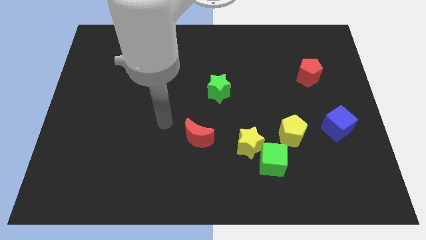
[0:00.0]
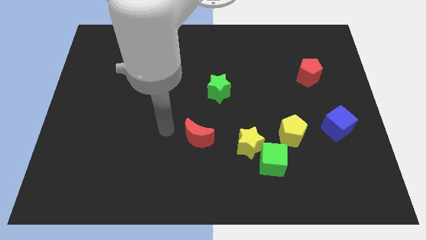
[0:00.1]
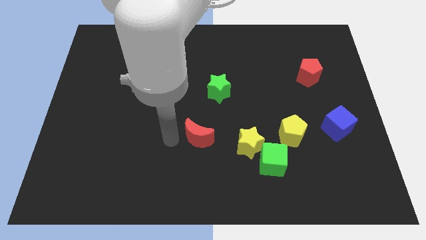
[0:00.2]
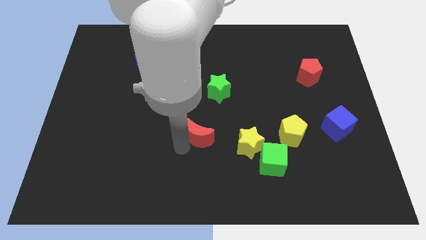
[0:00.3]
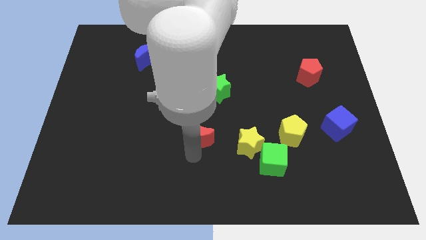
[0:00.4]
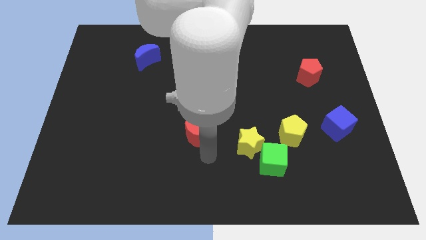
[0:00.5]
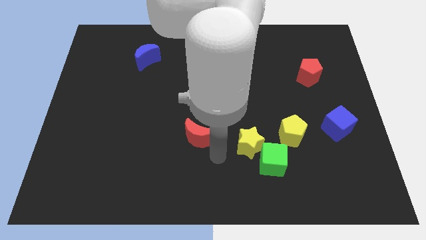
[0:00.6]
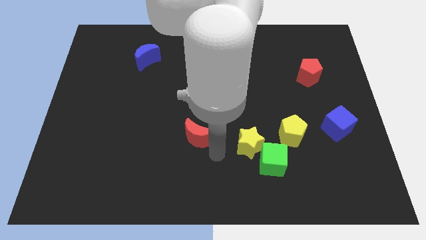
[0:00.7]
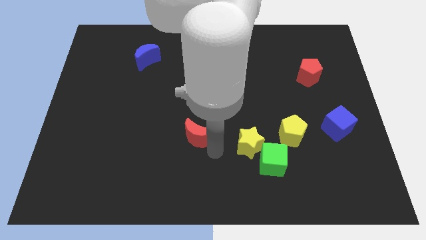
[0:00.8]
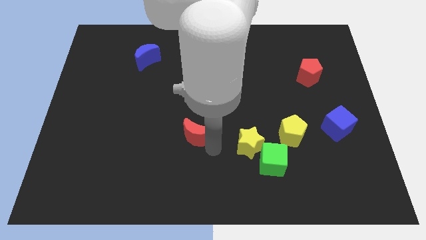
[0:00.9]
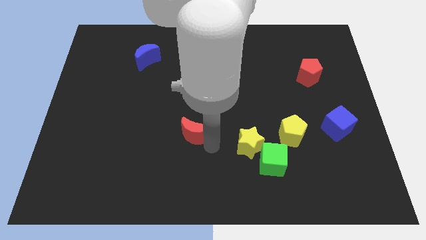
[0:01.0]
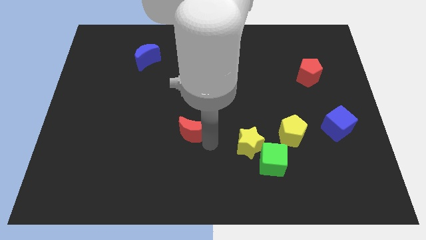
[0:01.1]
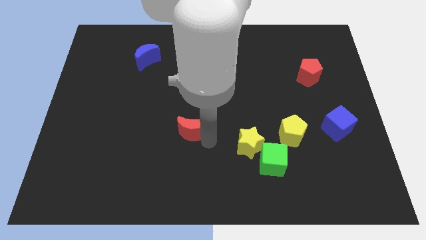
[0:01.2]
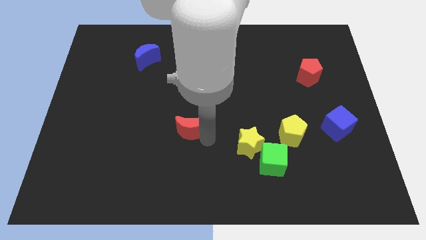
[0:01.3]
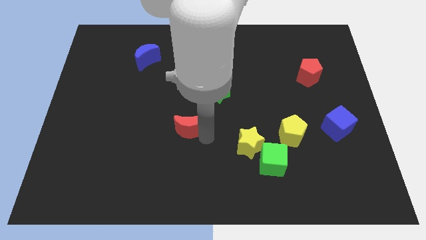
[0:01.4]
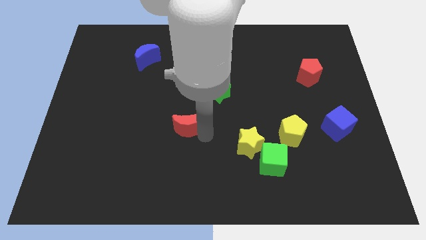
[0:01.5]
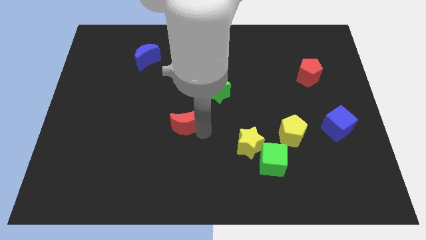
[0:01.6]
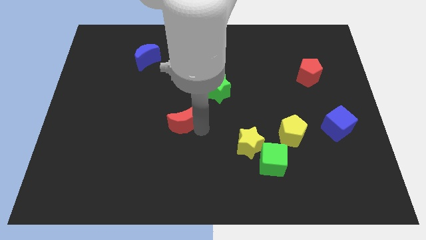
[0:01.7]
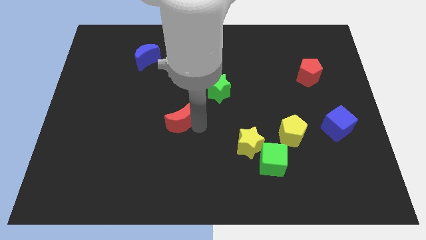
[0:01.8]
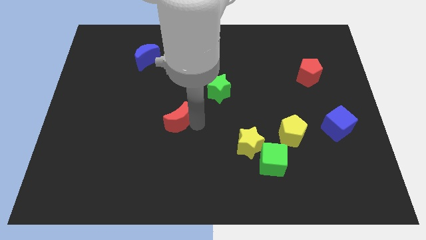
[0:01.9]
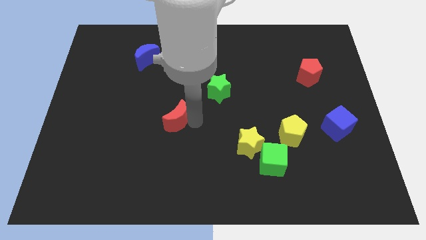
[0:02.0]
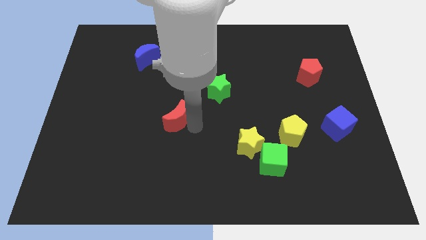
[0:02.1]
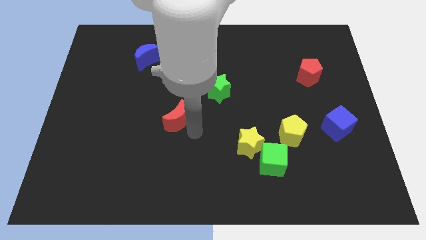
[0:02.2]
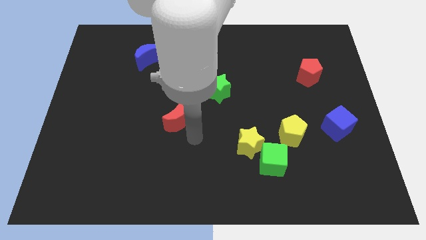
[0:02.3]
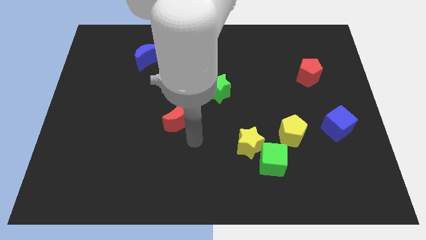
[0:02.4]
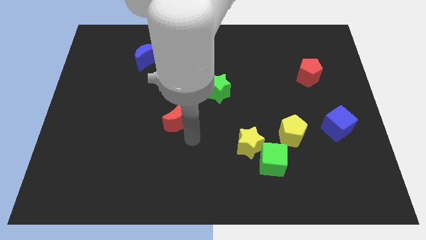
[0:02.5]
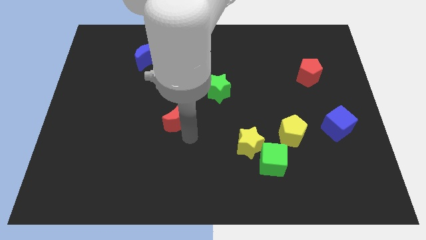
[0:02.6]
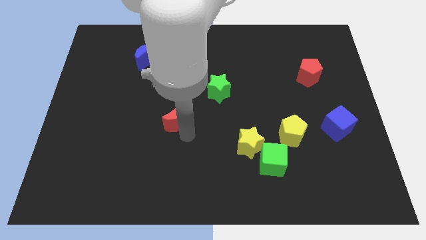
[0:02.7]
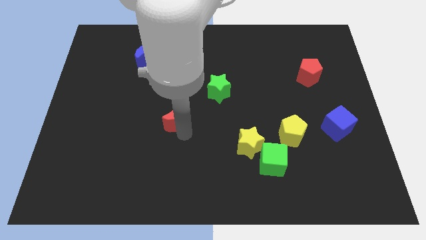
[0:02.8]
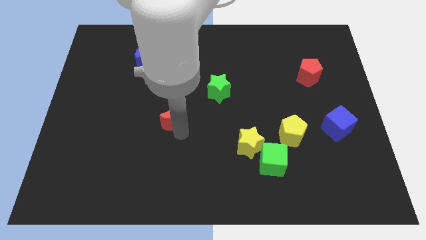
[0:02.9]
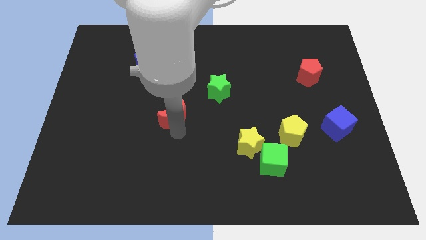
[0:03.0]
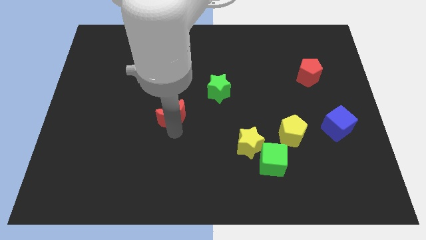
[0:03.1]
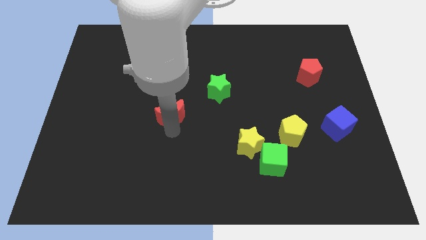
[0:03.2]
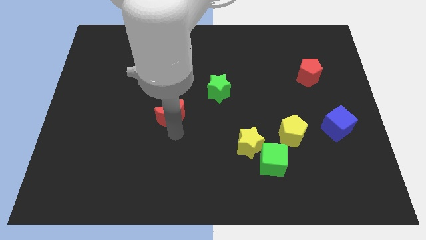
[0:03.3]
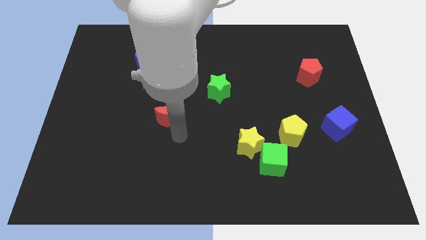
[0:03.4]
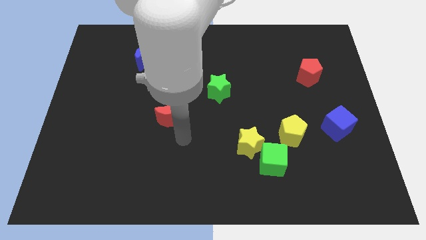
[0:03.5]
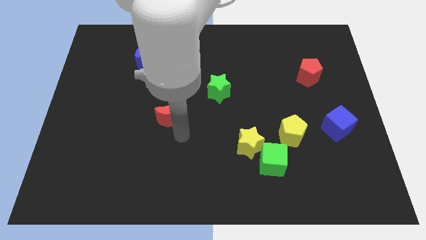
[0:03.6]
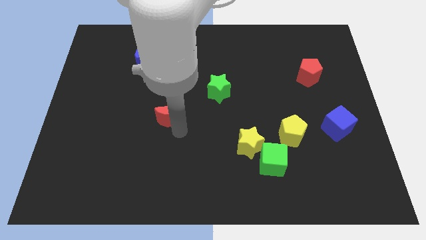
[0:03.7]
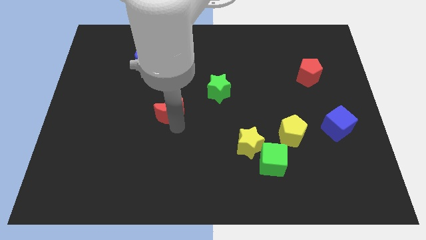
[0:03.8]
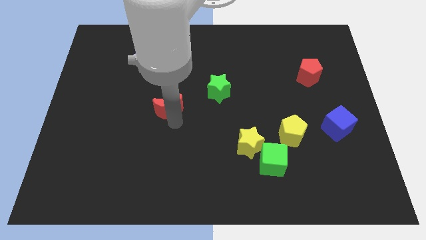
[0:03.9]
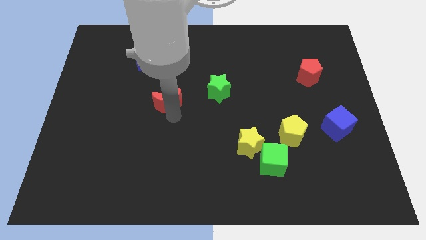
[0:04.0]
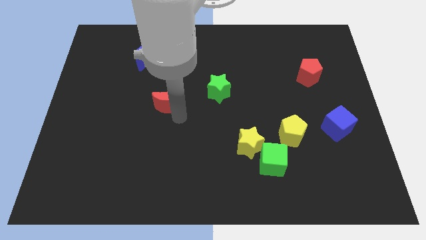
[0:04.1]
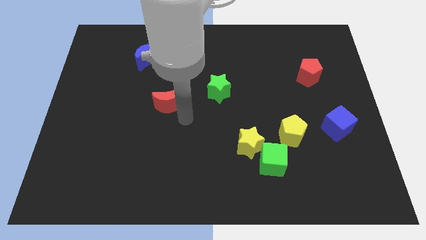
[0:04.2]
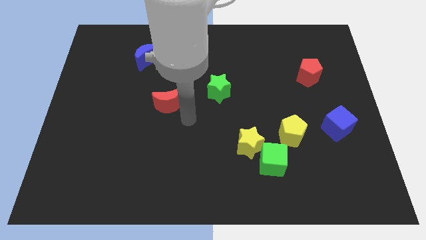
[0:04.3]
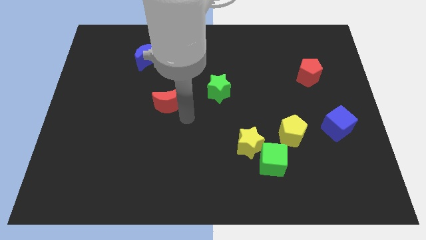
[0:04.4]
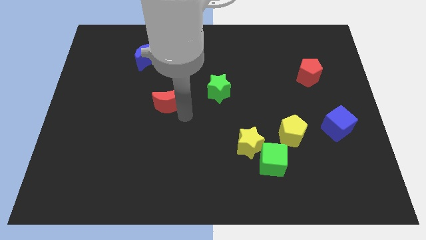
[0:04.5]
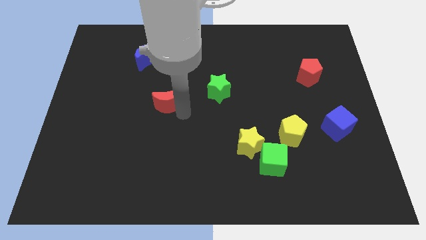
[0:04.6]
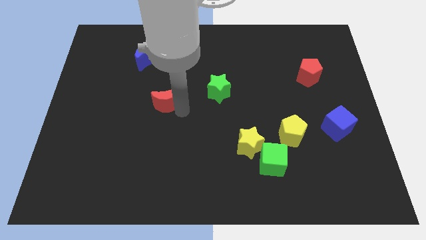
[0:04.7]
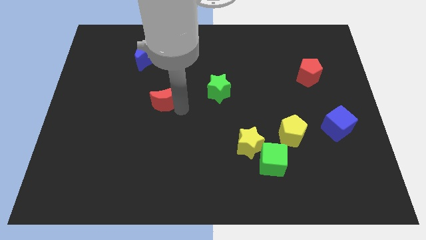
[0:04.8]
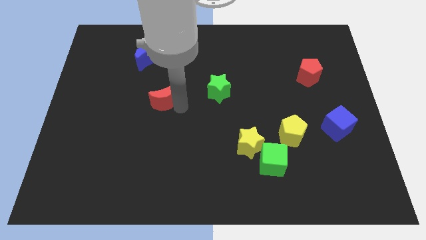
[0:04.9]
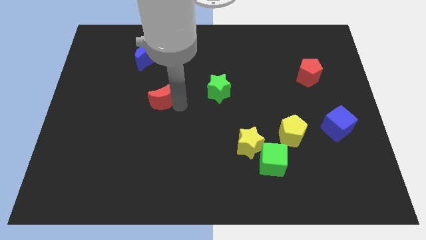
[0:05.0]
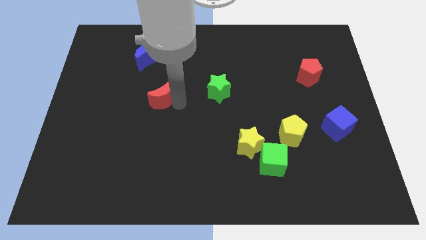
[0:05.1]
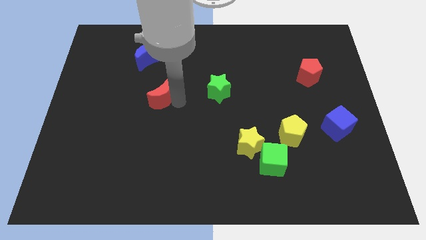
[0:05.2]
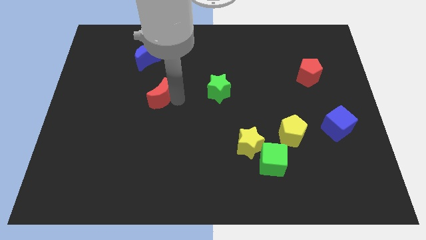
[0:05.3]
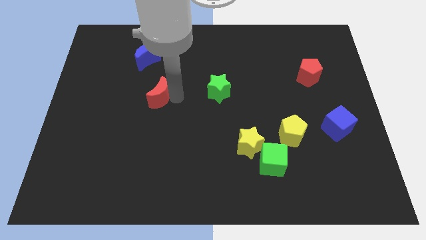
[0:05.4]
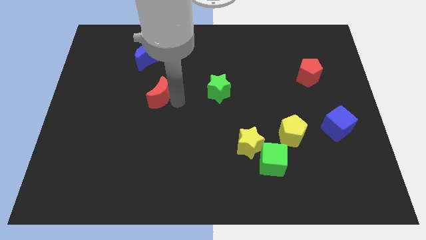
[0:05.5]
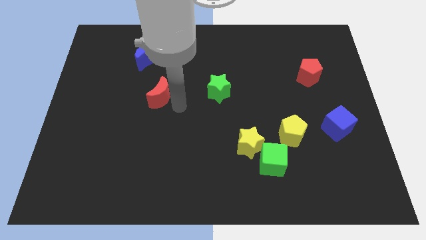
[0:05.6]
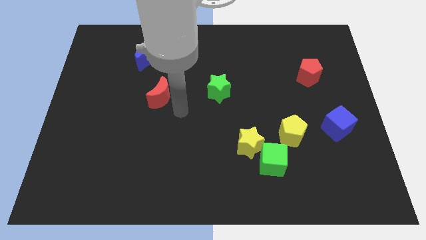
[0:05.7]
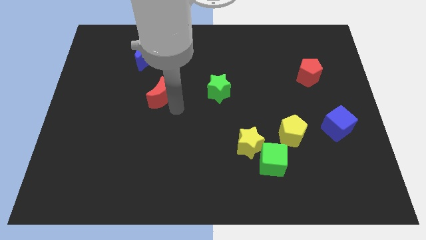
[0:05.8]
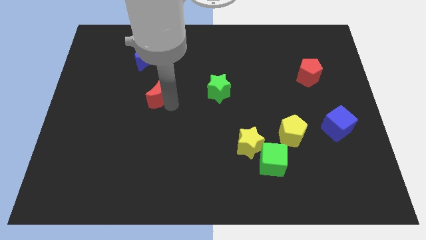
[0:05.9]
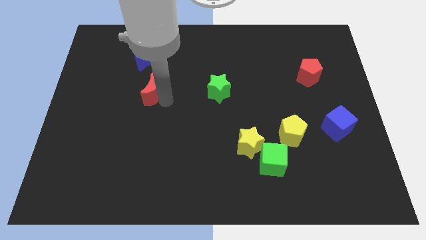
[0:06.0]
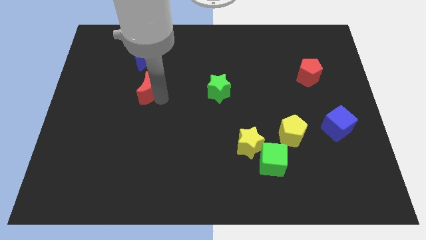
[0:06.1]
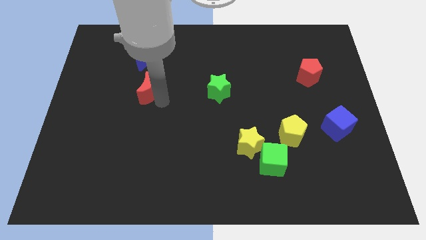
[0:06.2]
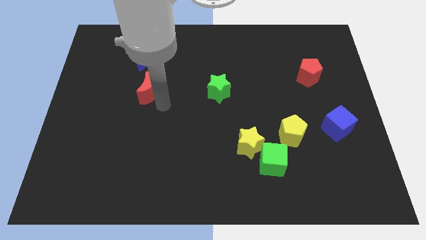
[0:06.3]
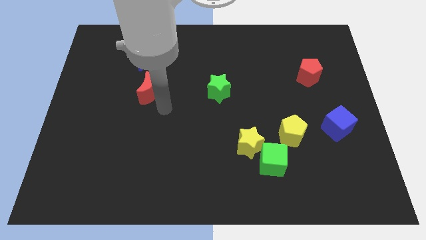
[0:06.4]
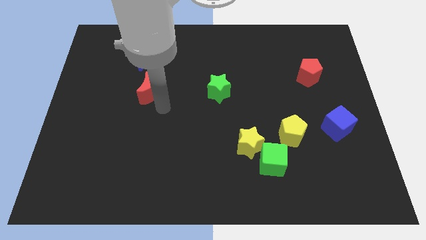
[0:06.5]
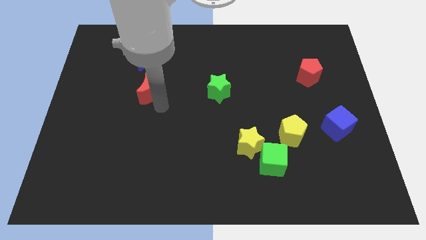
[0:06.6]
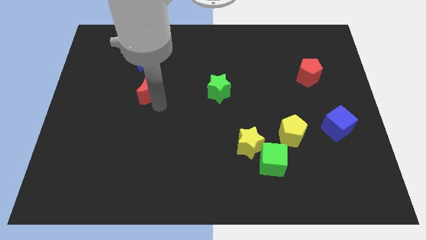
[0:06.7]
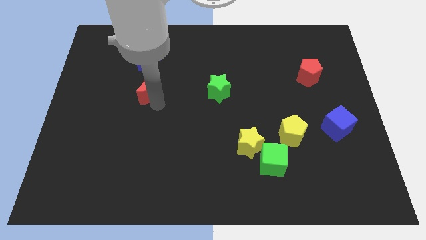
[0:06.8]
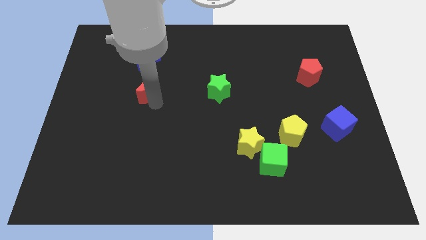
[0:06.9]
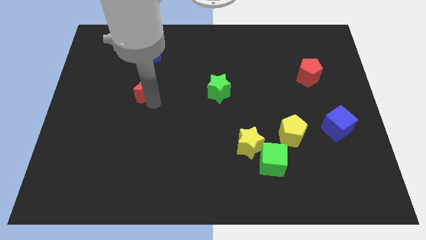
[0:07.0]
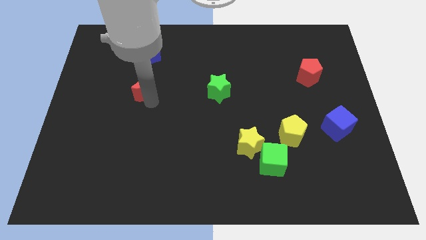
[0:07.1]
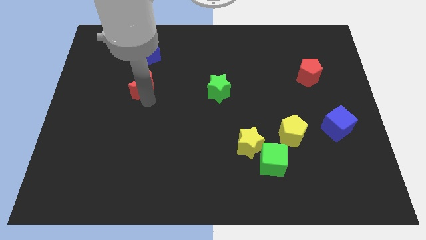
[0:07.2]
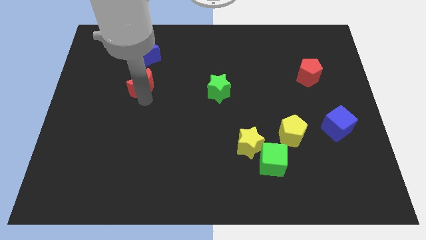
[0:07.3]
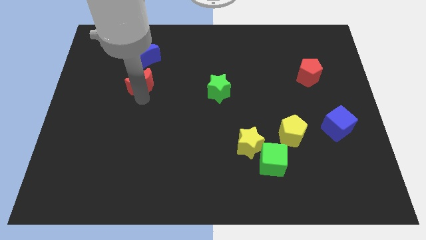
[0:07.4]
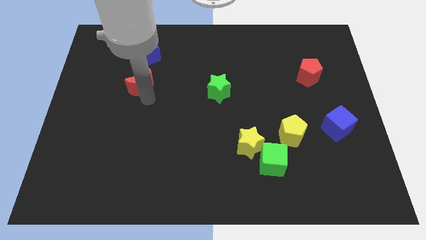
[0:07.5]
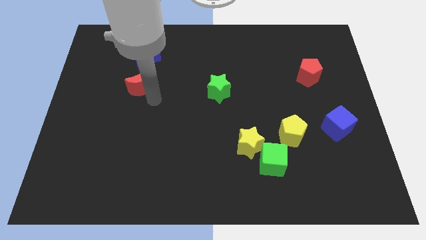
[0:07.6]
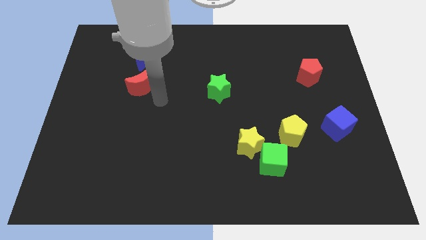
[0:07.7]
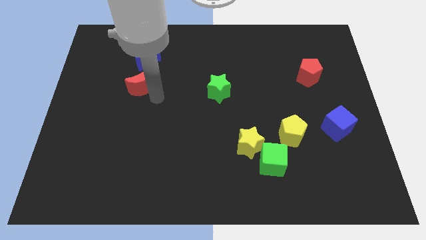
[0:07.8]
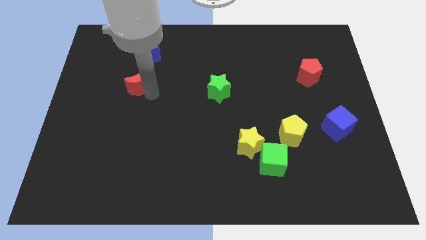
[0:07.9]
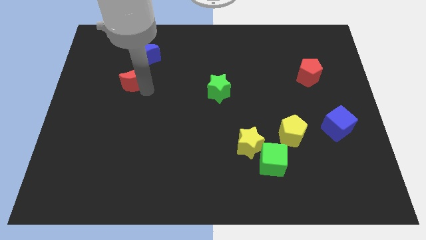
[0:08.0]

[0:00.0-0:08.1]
move the red moon to the bottom left of the blue moon
